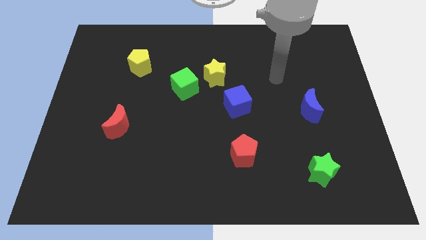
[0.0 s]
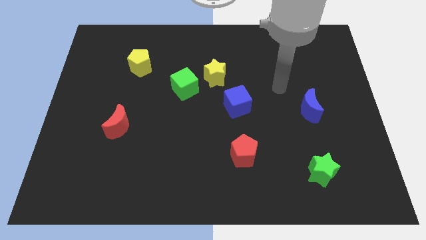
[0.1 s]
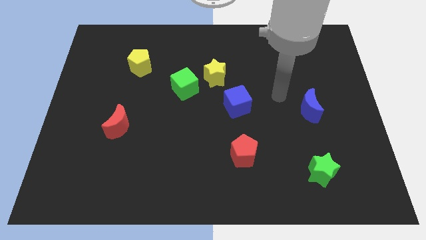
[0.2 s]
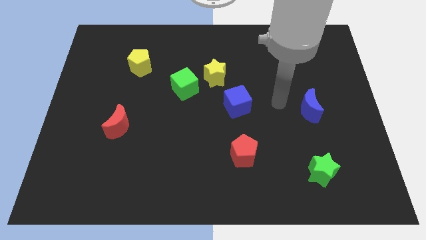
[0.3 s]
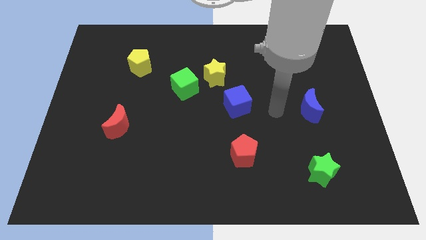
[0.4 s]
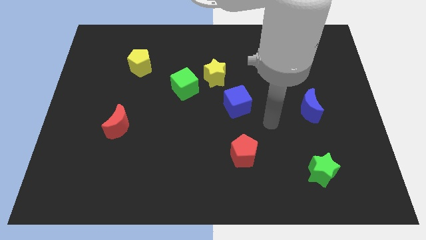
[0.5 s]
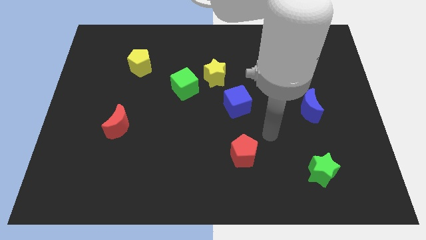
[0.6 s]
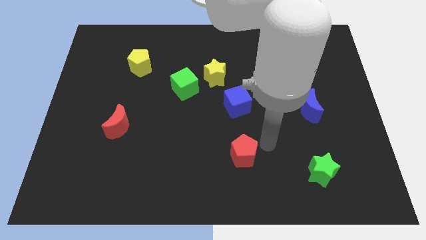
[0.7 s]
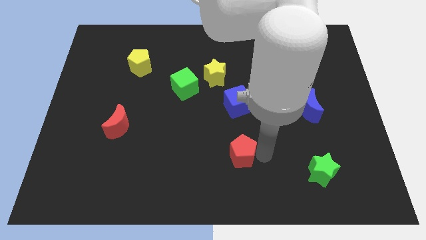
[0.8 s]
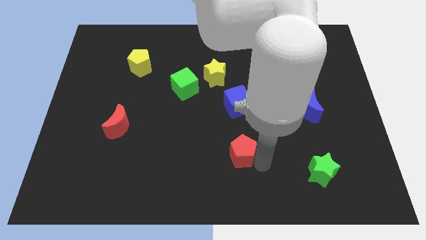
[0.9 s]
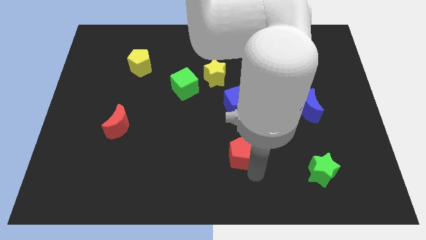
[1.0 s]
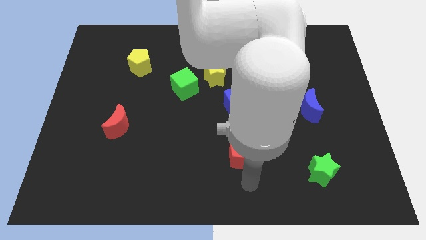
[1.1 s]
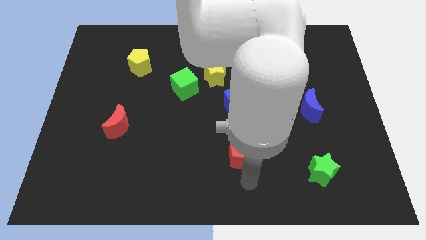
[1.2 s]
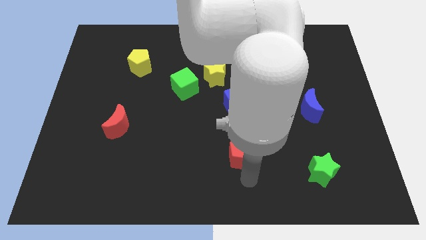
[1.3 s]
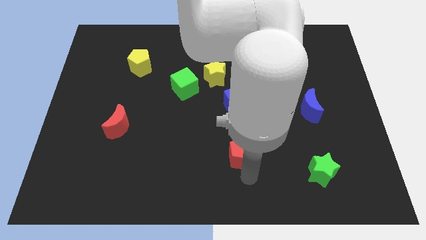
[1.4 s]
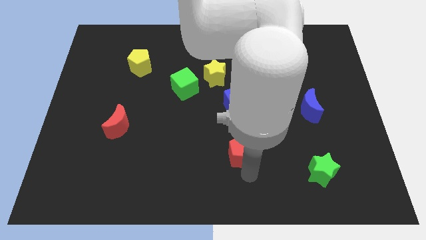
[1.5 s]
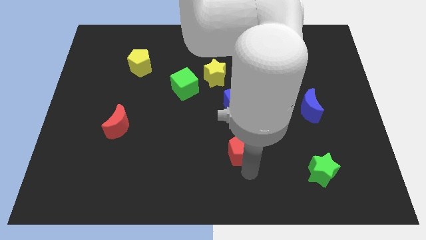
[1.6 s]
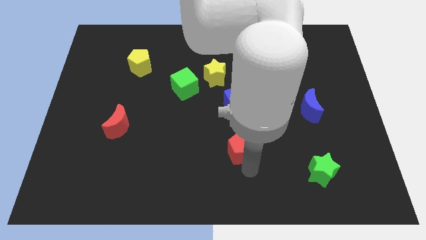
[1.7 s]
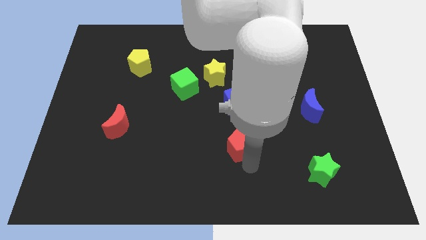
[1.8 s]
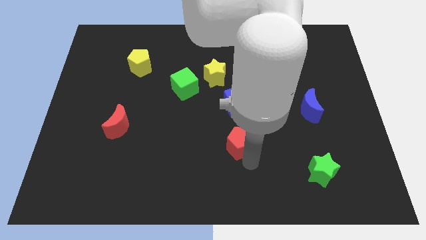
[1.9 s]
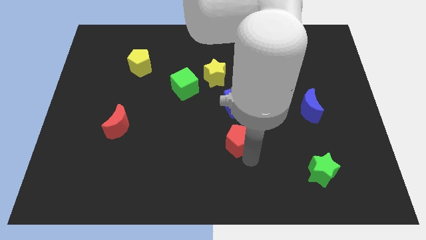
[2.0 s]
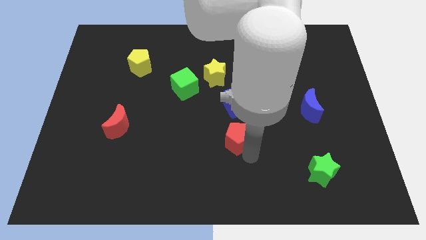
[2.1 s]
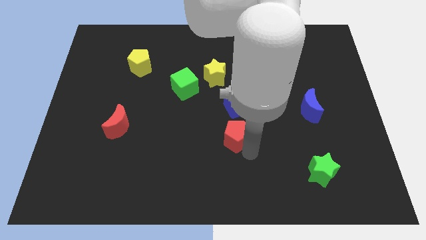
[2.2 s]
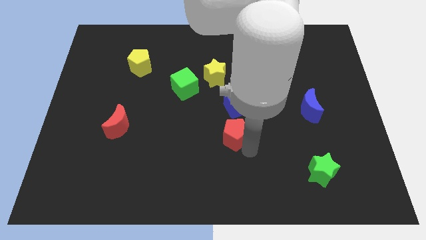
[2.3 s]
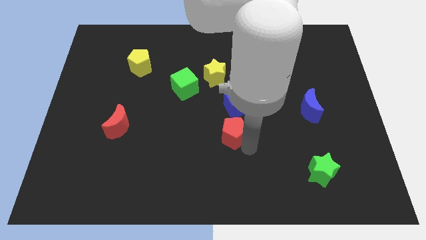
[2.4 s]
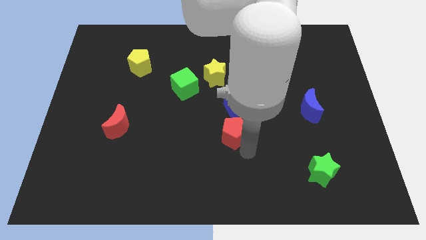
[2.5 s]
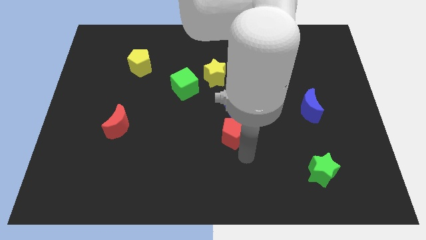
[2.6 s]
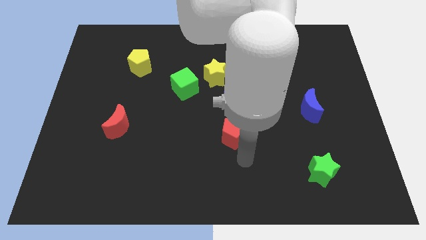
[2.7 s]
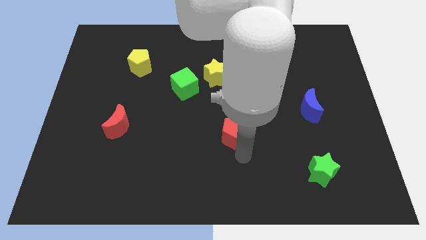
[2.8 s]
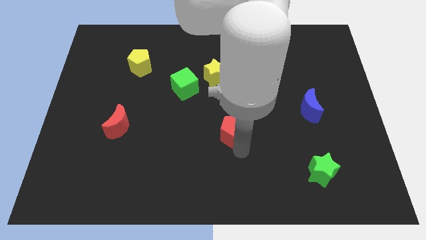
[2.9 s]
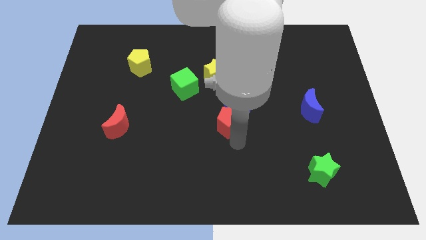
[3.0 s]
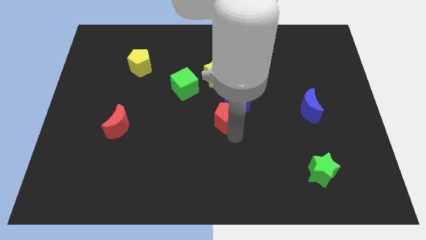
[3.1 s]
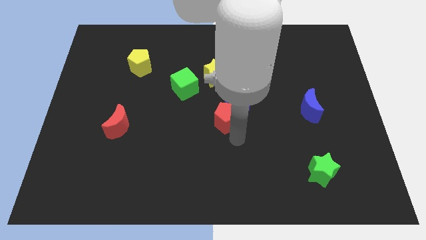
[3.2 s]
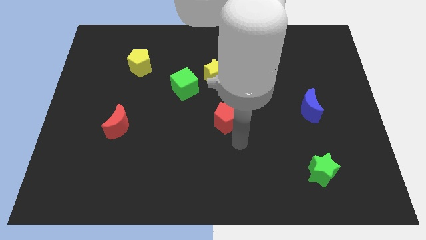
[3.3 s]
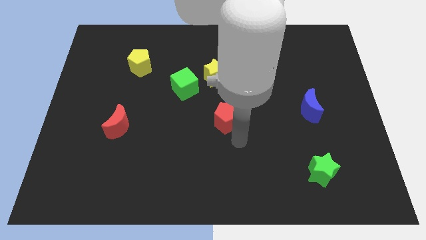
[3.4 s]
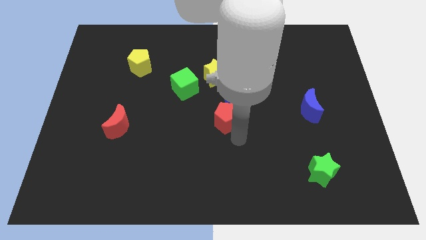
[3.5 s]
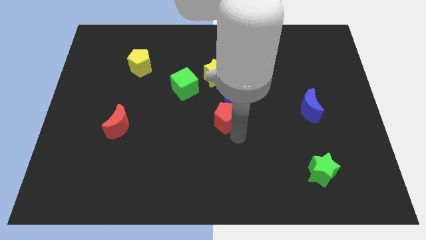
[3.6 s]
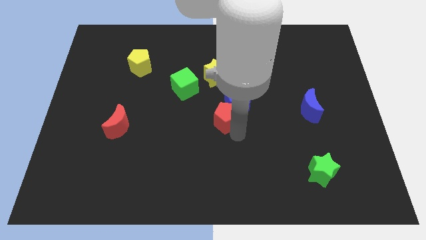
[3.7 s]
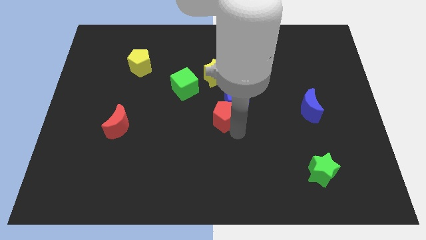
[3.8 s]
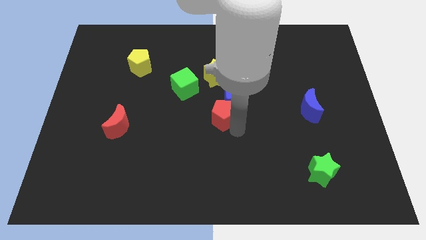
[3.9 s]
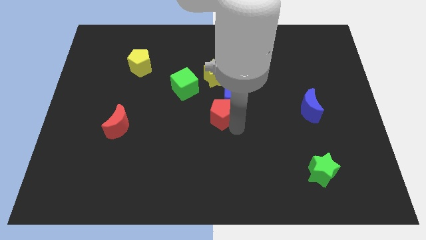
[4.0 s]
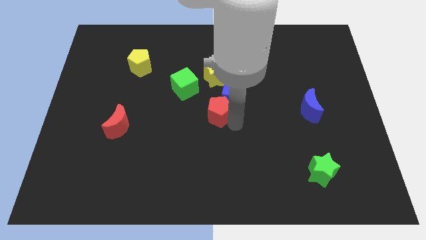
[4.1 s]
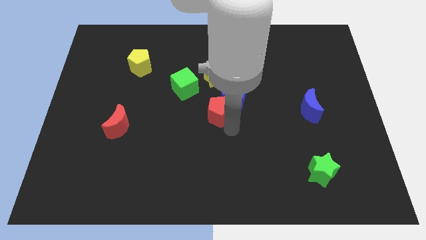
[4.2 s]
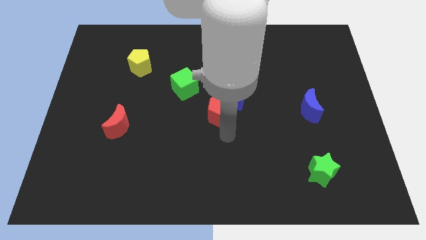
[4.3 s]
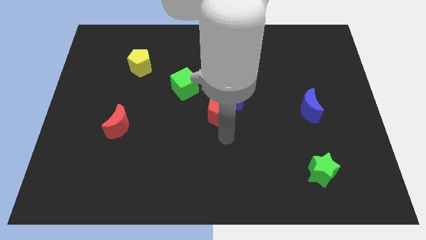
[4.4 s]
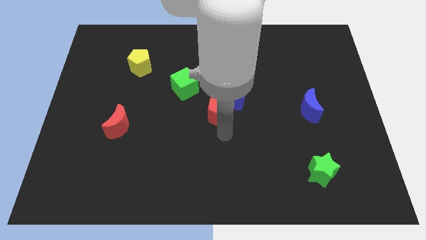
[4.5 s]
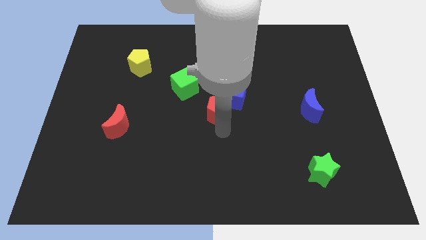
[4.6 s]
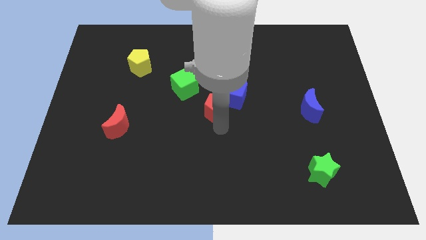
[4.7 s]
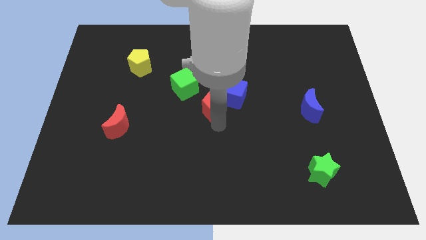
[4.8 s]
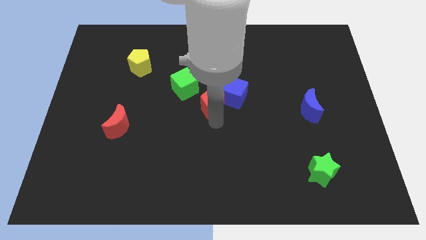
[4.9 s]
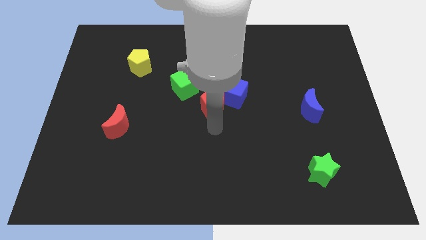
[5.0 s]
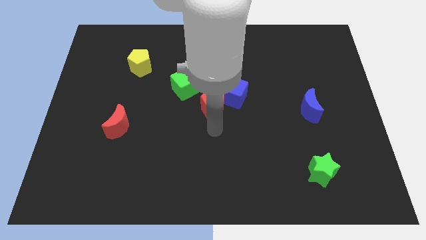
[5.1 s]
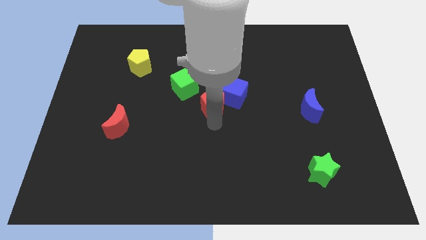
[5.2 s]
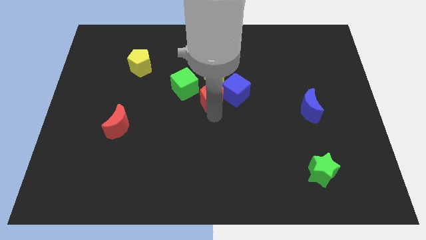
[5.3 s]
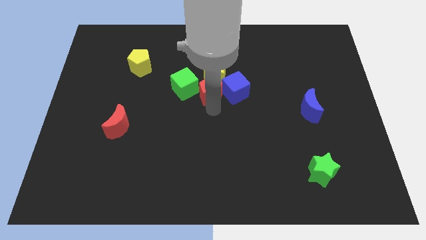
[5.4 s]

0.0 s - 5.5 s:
slide the red pentagon to the top left of the blue cube
